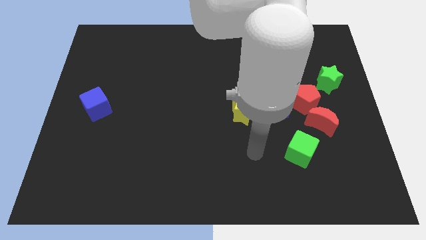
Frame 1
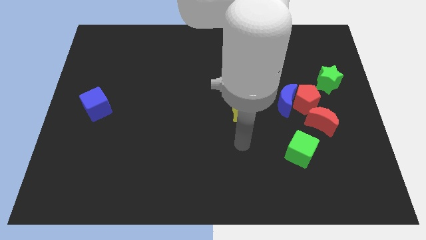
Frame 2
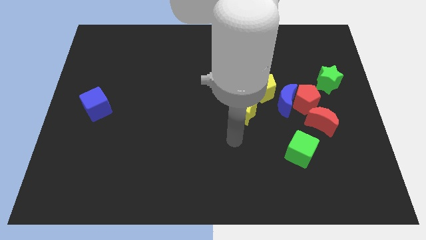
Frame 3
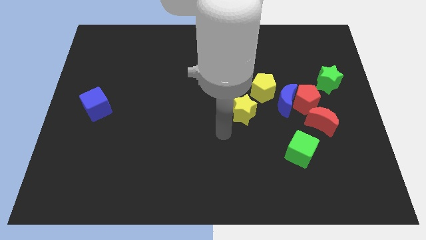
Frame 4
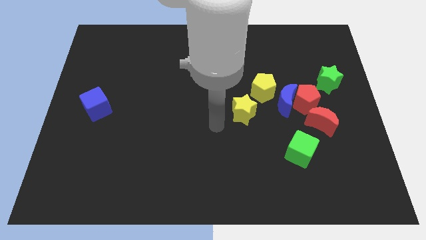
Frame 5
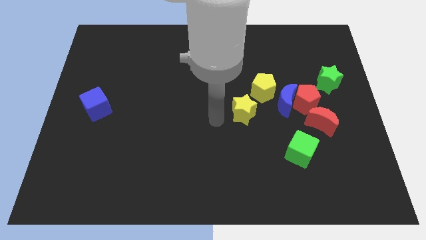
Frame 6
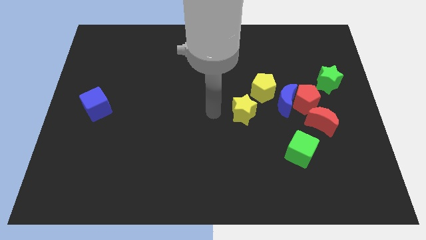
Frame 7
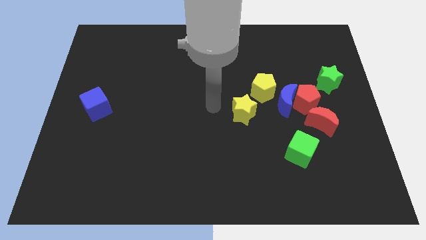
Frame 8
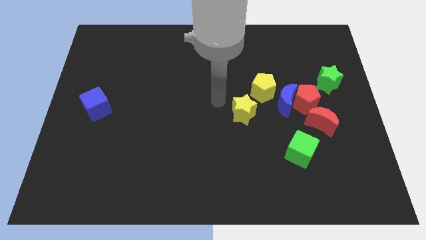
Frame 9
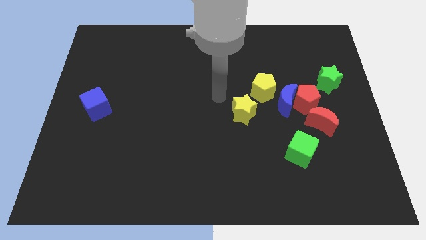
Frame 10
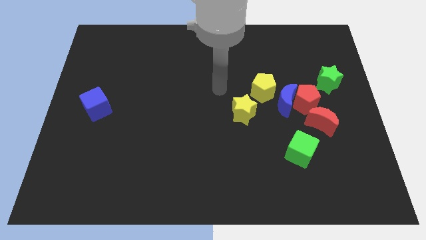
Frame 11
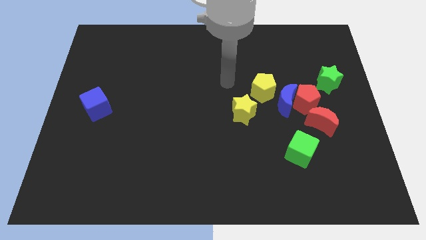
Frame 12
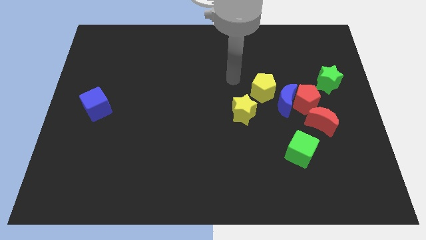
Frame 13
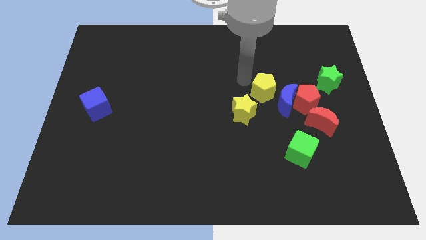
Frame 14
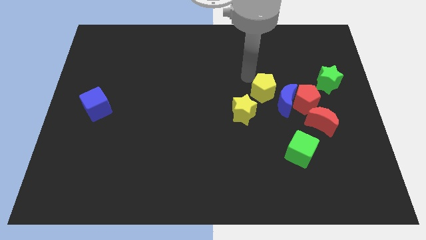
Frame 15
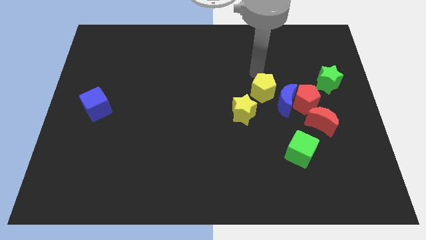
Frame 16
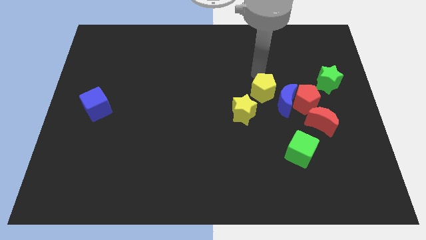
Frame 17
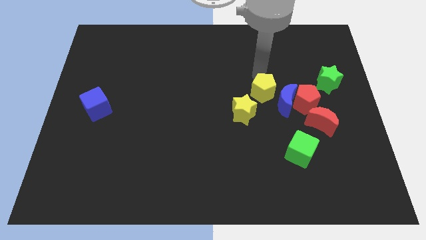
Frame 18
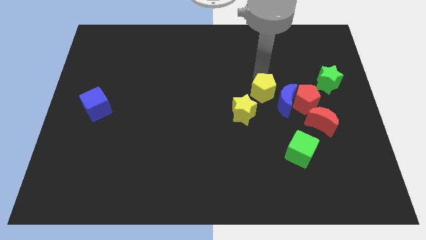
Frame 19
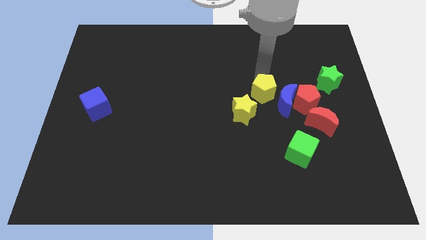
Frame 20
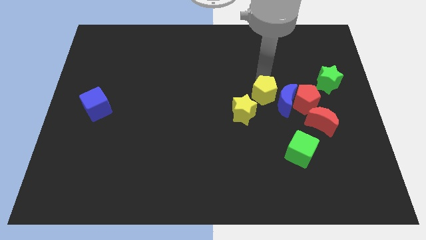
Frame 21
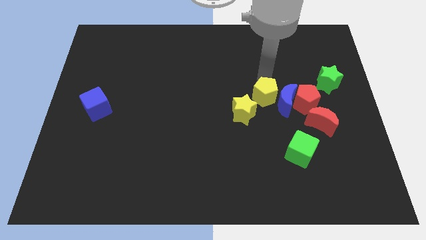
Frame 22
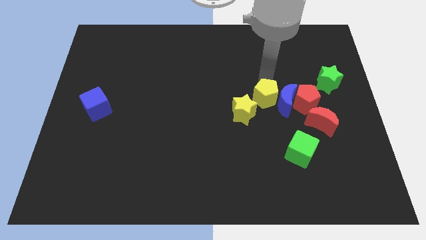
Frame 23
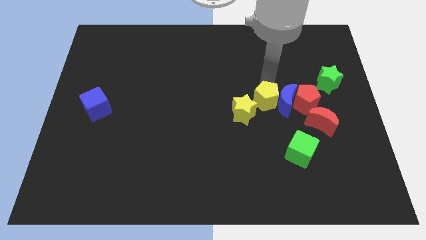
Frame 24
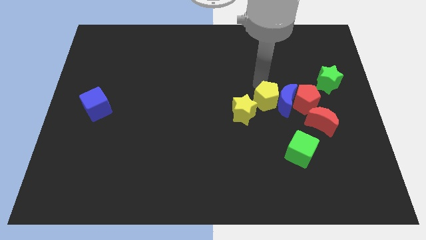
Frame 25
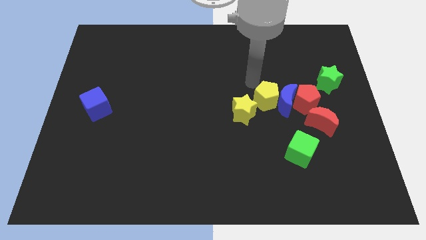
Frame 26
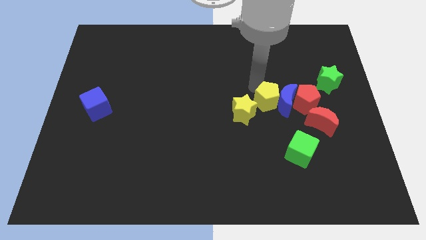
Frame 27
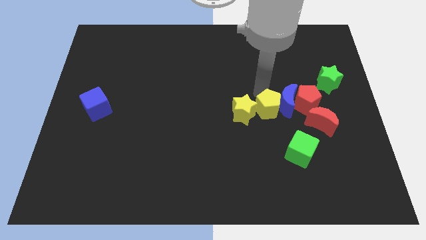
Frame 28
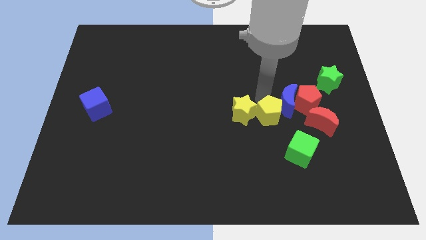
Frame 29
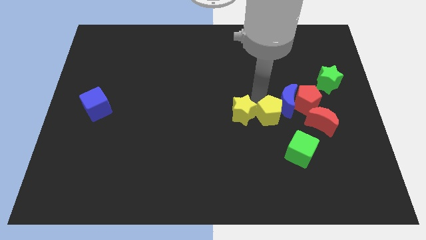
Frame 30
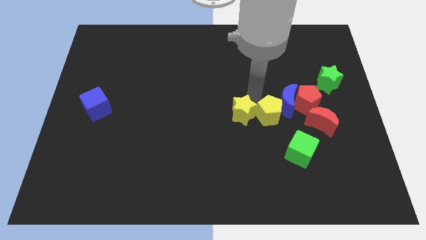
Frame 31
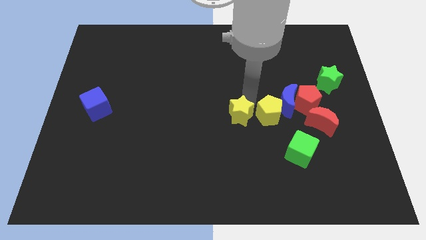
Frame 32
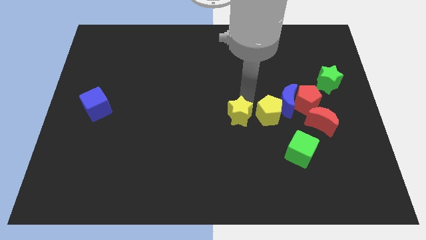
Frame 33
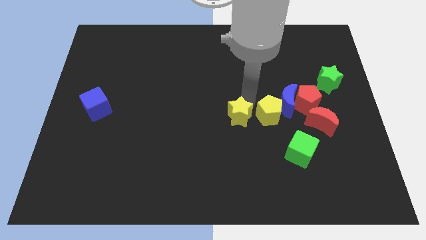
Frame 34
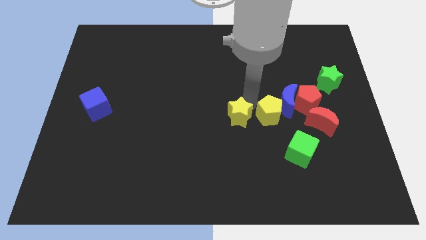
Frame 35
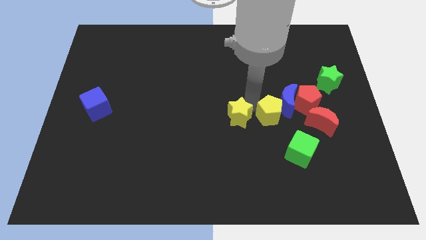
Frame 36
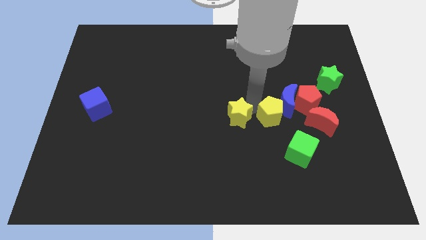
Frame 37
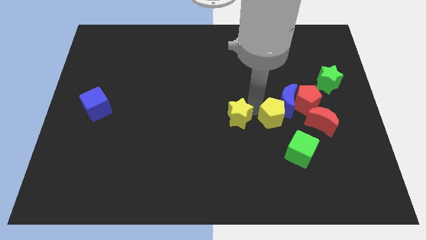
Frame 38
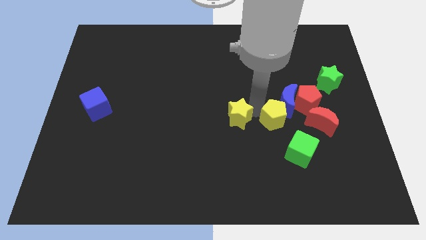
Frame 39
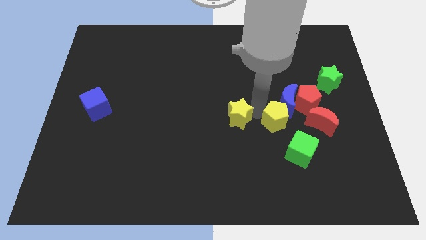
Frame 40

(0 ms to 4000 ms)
push the yellow pentagon a bit diagonally down and right

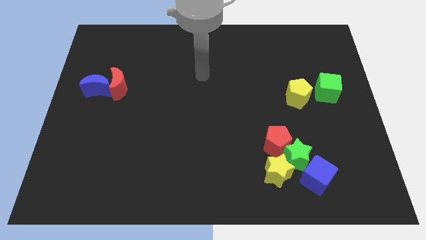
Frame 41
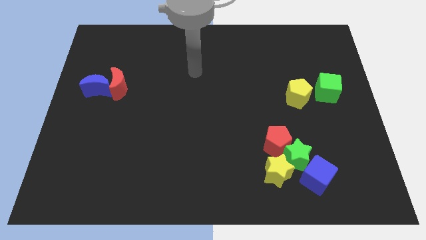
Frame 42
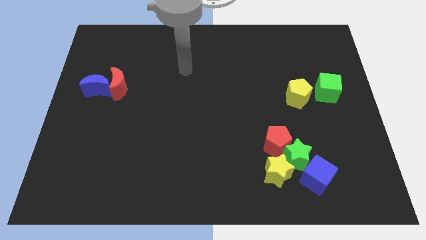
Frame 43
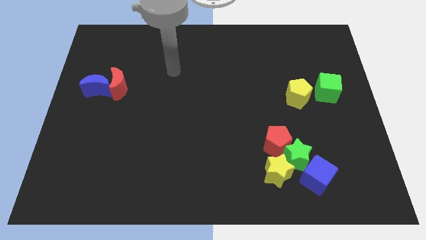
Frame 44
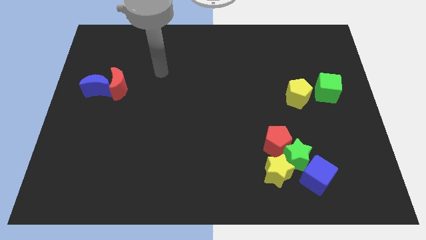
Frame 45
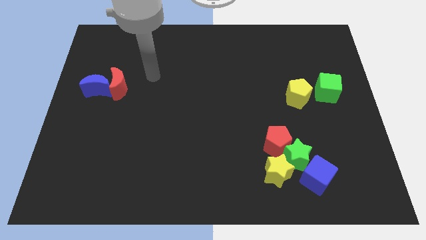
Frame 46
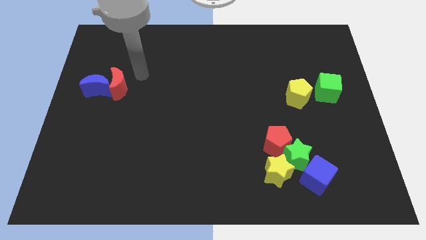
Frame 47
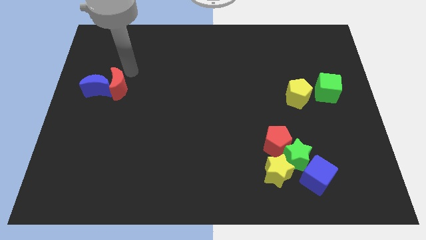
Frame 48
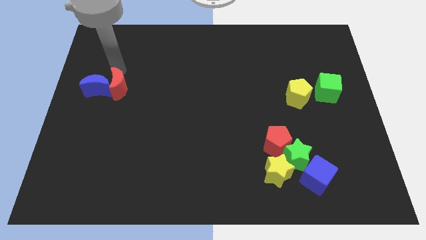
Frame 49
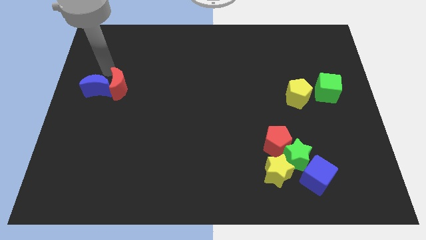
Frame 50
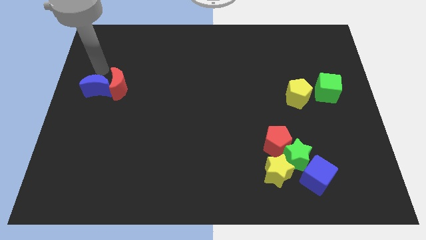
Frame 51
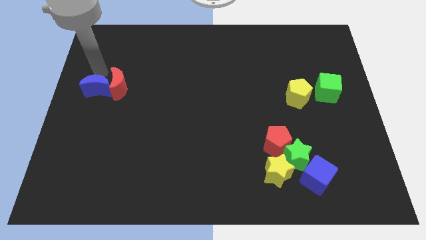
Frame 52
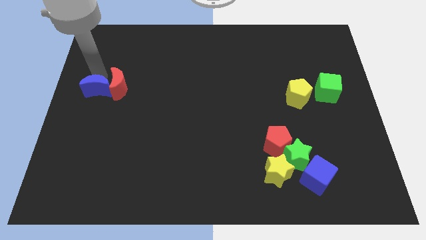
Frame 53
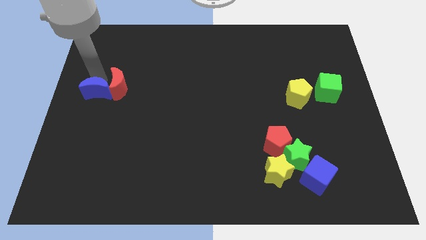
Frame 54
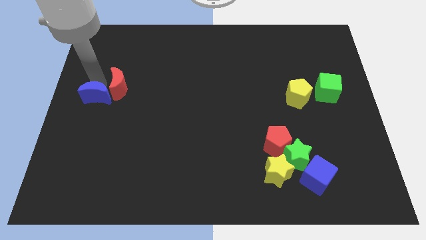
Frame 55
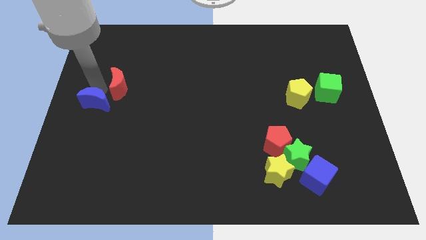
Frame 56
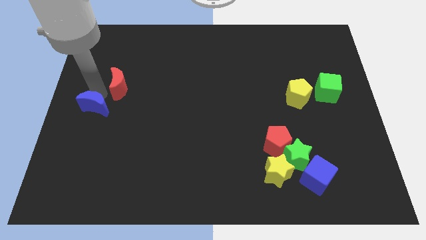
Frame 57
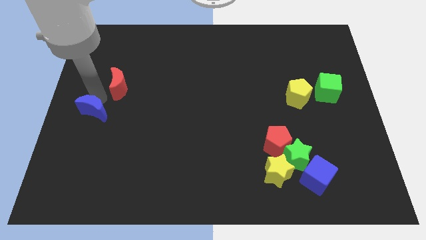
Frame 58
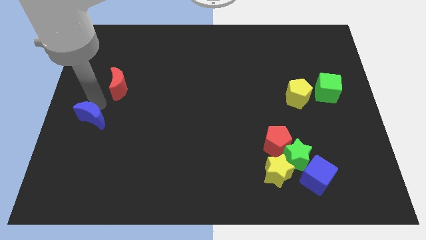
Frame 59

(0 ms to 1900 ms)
move the blue moon downwards a bit

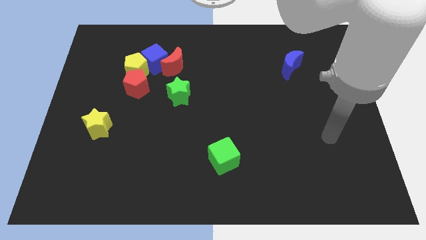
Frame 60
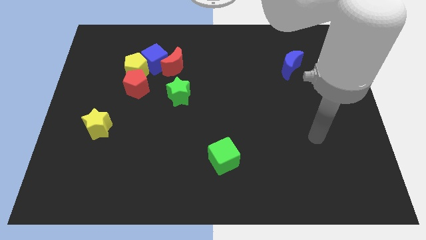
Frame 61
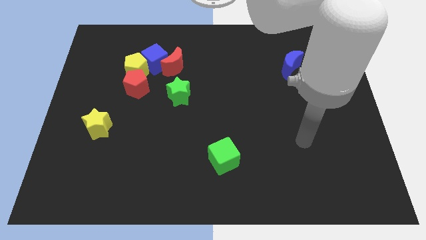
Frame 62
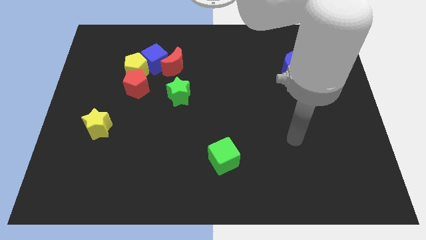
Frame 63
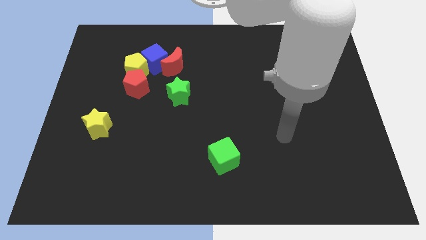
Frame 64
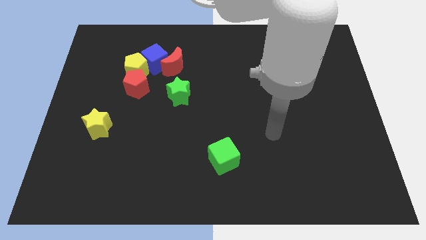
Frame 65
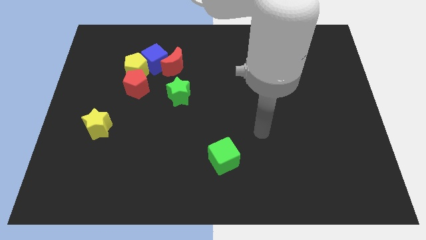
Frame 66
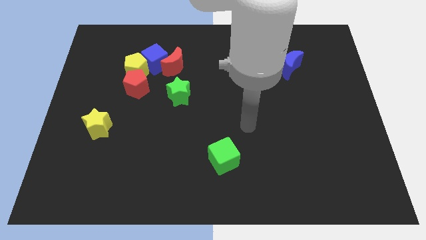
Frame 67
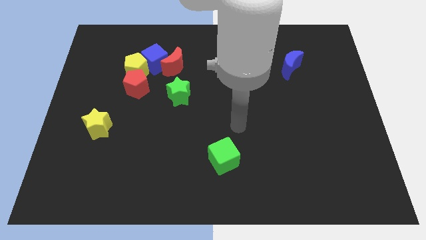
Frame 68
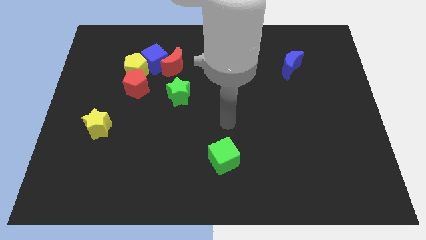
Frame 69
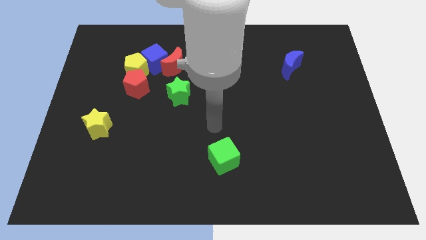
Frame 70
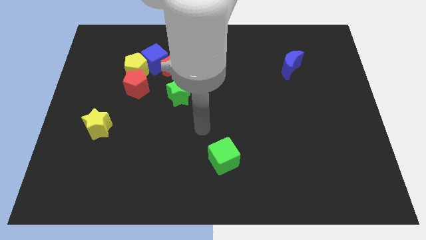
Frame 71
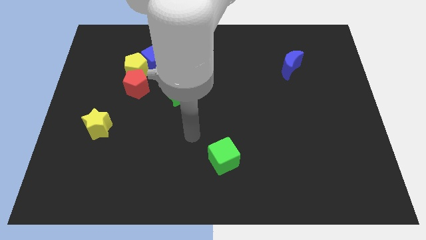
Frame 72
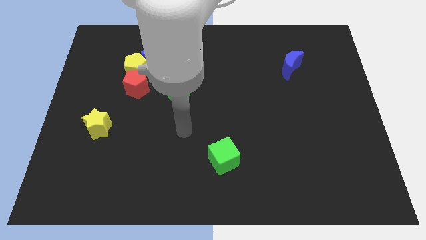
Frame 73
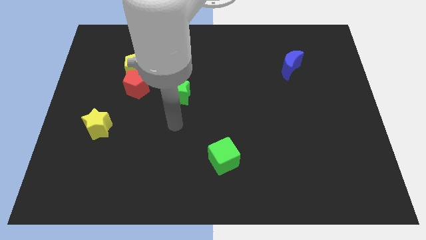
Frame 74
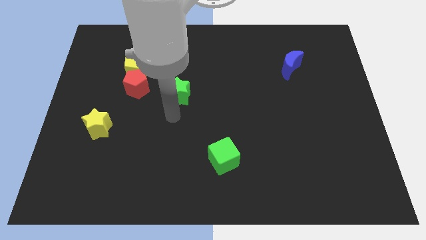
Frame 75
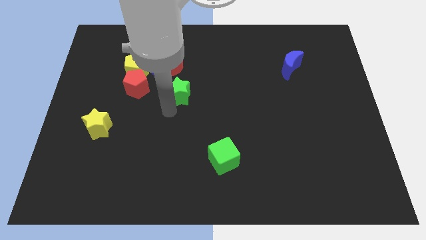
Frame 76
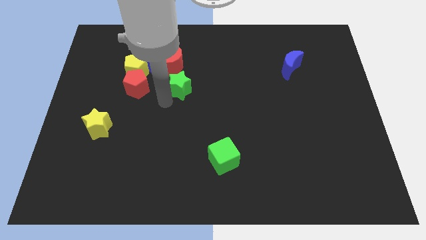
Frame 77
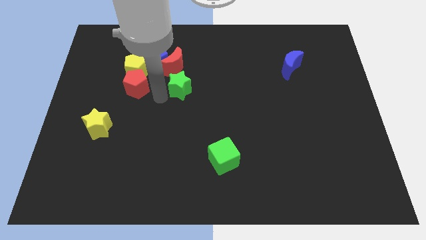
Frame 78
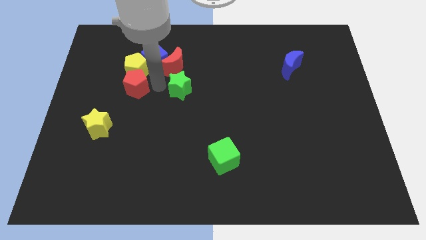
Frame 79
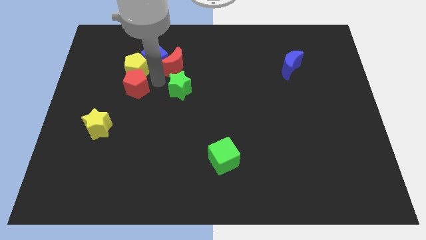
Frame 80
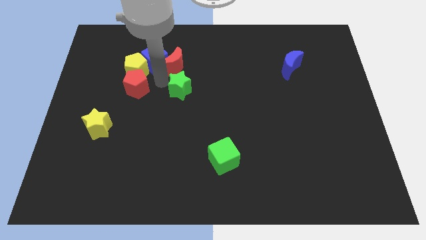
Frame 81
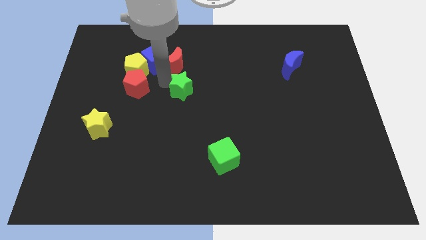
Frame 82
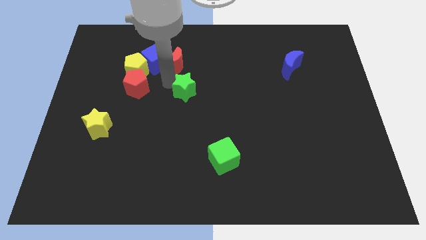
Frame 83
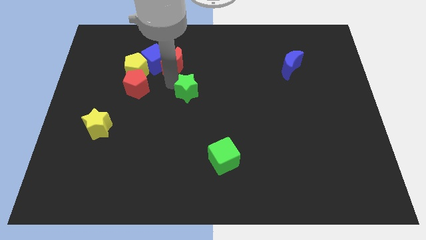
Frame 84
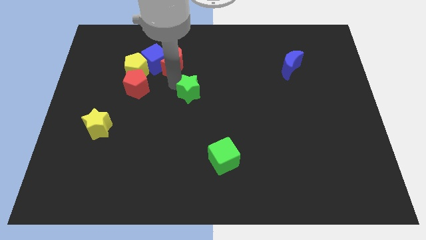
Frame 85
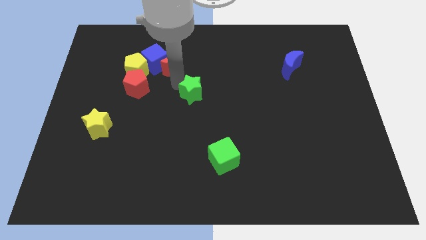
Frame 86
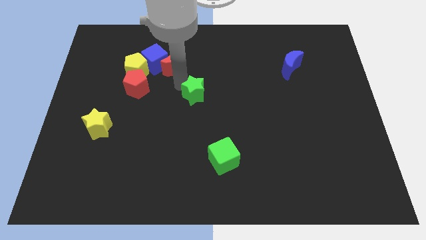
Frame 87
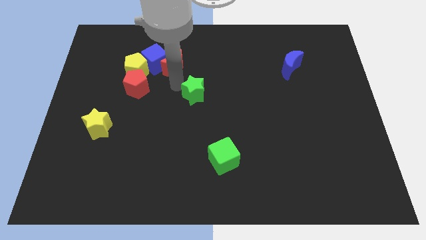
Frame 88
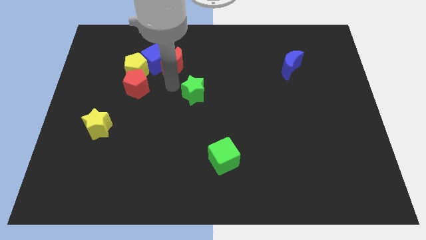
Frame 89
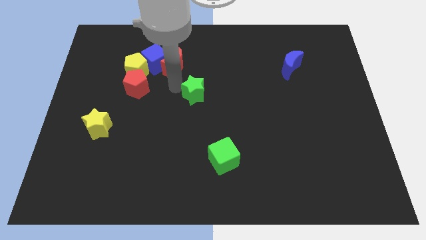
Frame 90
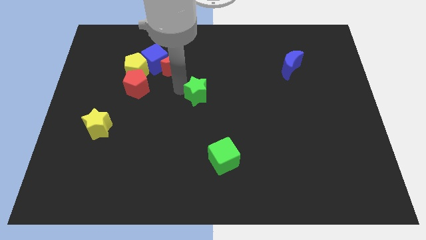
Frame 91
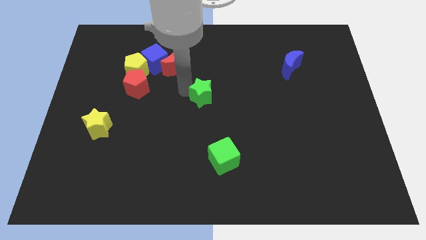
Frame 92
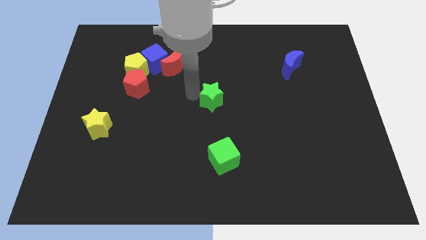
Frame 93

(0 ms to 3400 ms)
move the green star somewhat to the right
